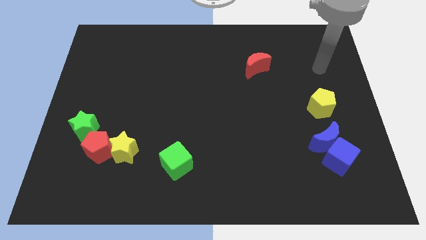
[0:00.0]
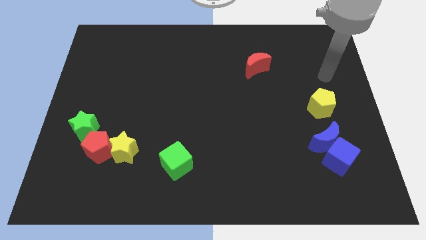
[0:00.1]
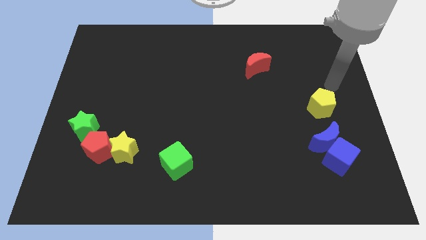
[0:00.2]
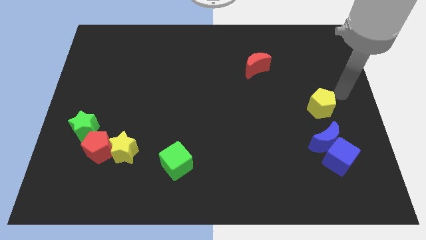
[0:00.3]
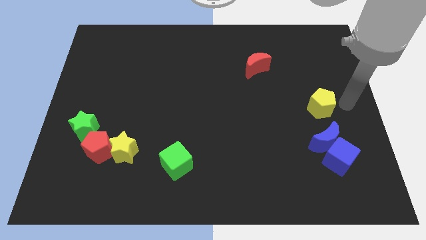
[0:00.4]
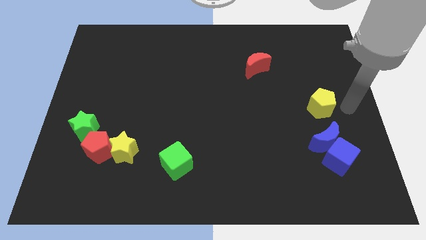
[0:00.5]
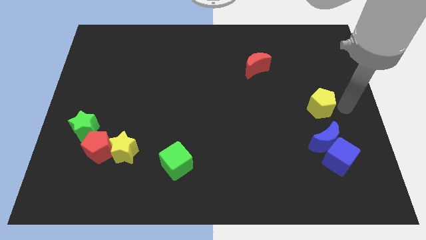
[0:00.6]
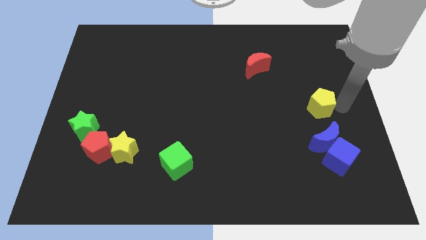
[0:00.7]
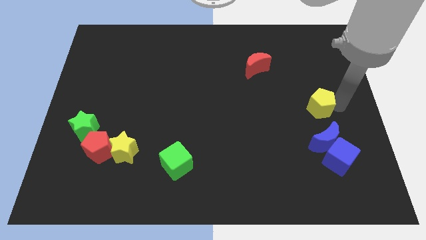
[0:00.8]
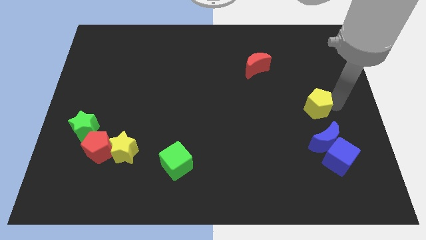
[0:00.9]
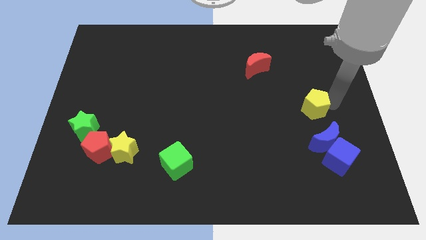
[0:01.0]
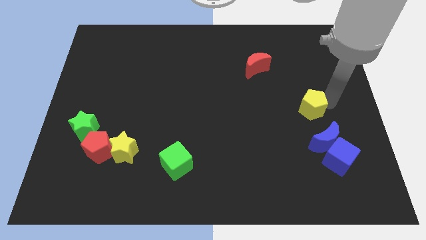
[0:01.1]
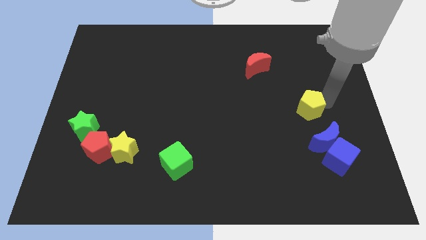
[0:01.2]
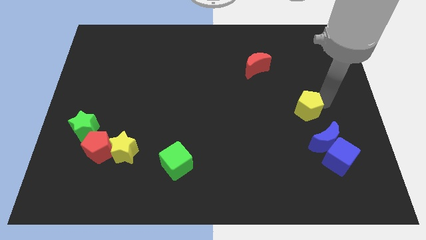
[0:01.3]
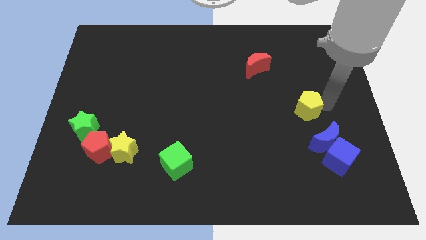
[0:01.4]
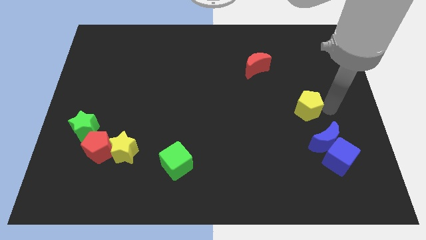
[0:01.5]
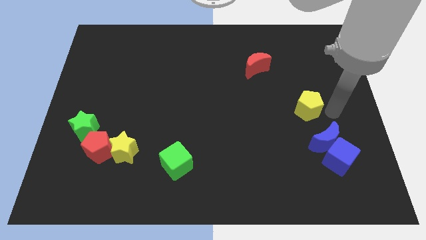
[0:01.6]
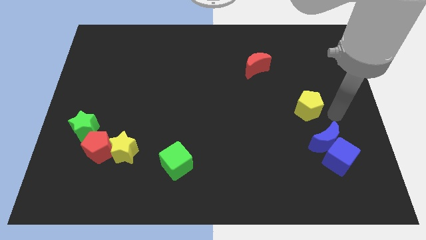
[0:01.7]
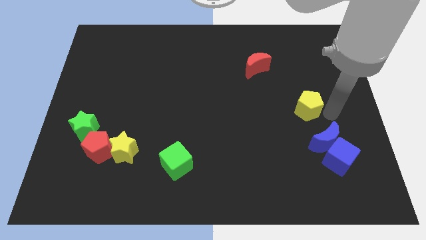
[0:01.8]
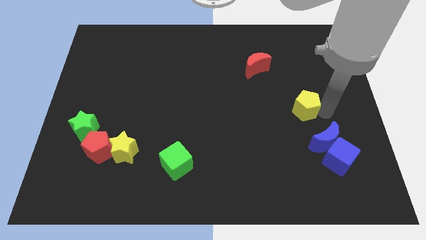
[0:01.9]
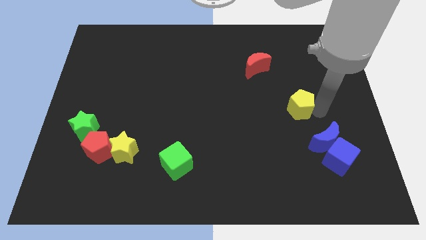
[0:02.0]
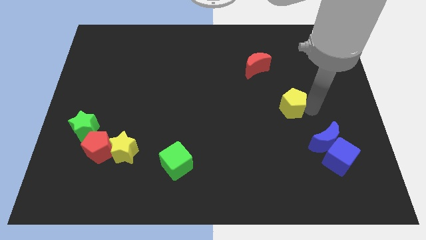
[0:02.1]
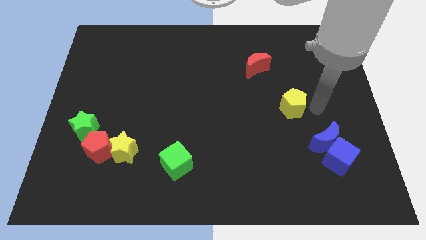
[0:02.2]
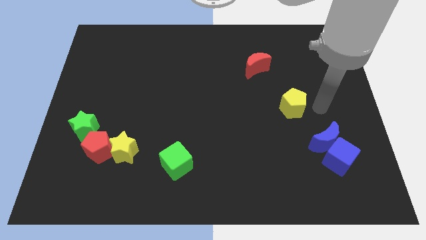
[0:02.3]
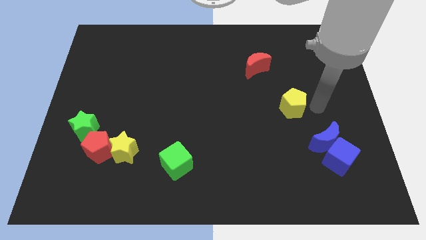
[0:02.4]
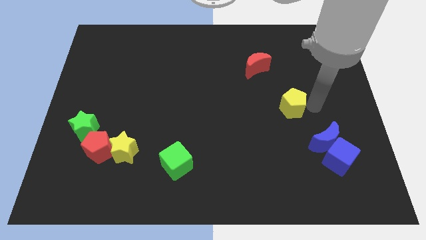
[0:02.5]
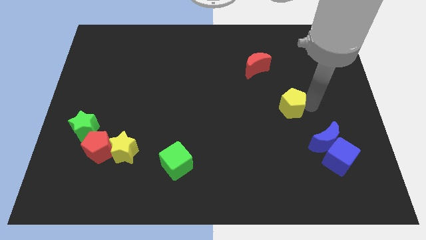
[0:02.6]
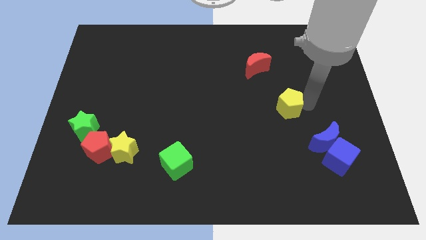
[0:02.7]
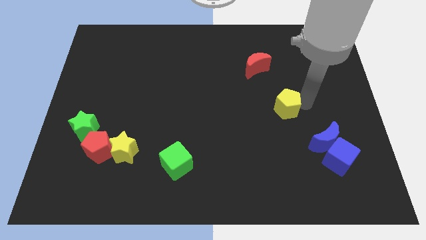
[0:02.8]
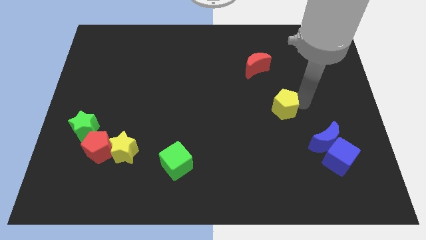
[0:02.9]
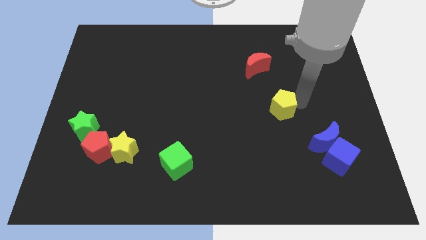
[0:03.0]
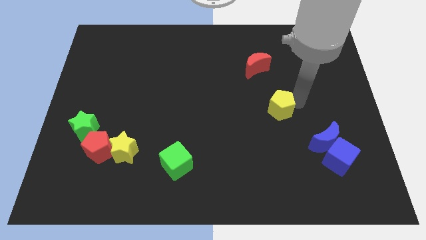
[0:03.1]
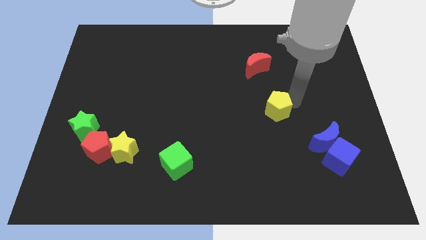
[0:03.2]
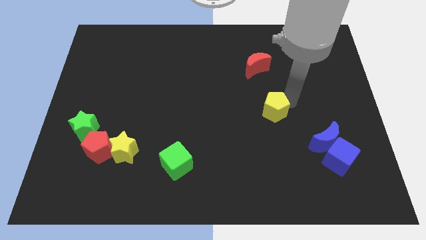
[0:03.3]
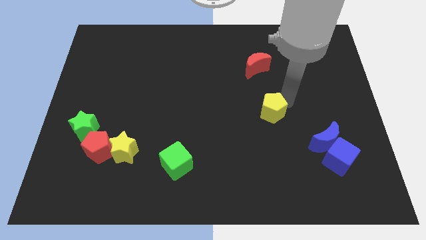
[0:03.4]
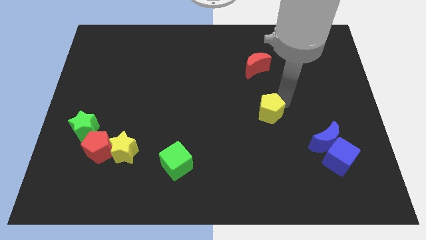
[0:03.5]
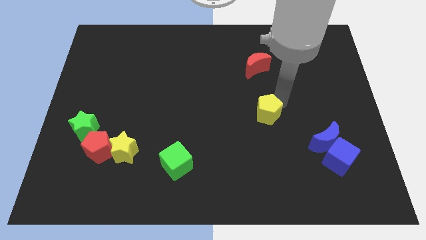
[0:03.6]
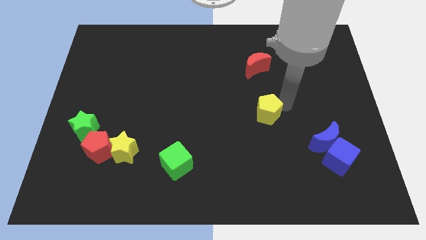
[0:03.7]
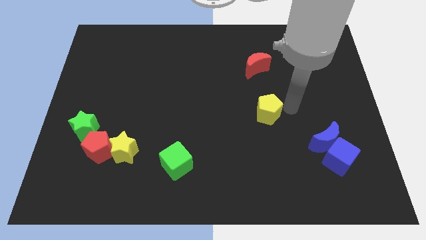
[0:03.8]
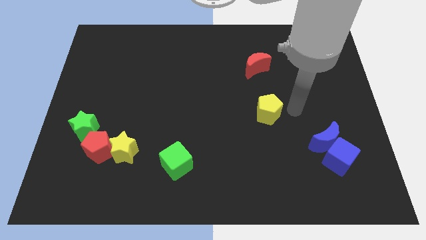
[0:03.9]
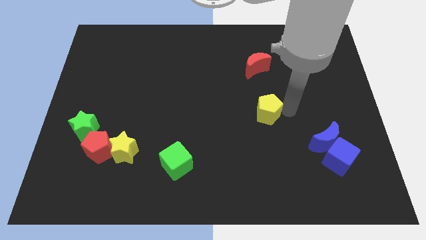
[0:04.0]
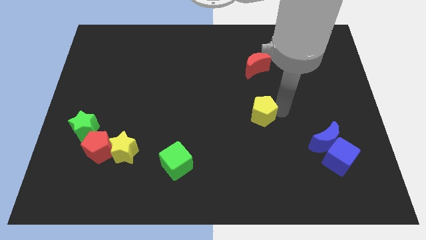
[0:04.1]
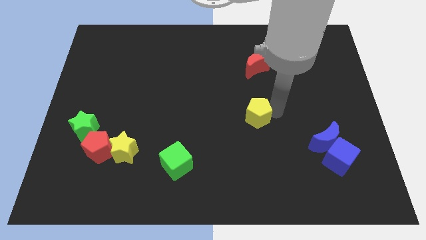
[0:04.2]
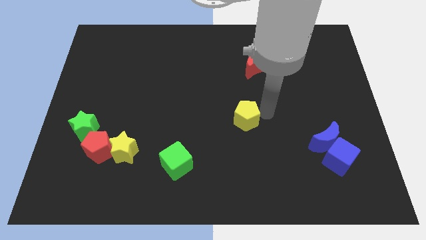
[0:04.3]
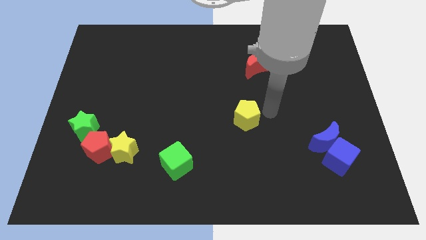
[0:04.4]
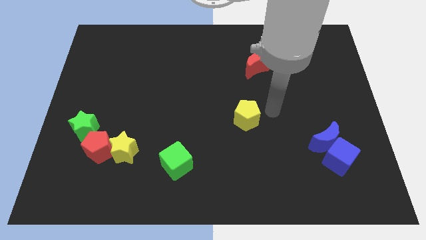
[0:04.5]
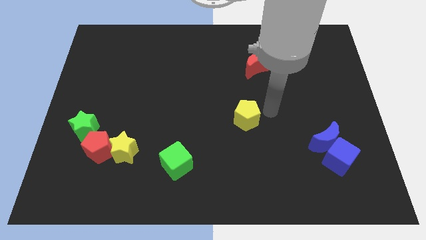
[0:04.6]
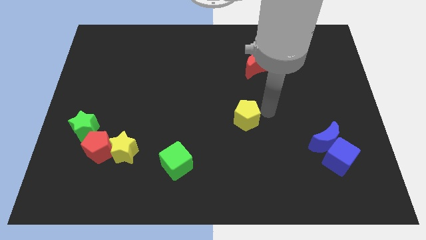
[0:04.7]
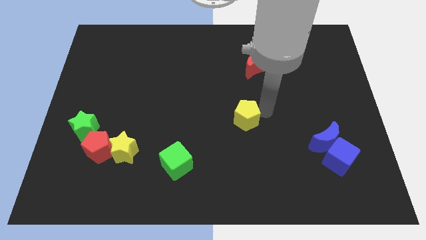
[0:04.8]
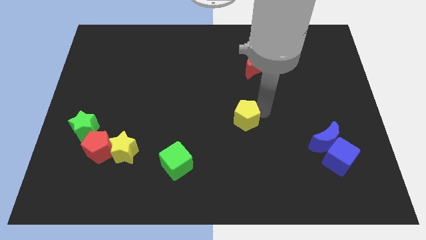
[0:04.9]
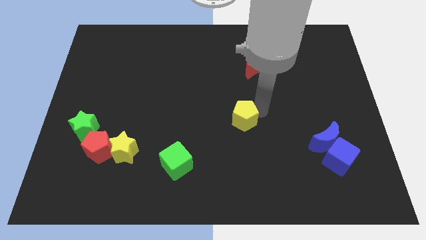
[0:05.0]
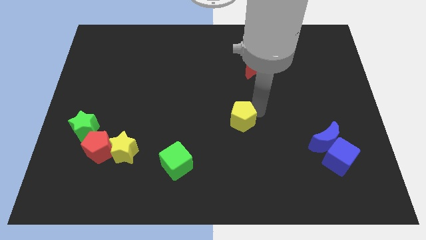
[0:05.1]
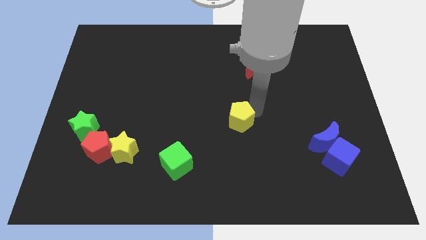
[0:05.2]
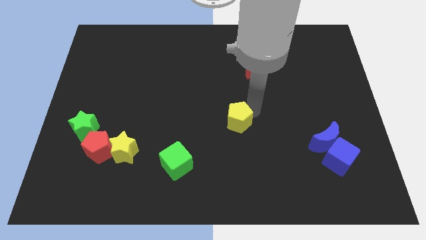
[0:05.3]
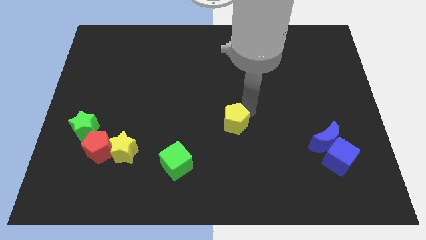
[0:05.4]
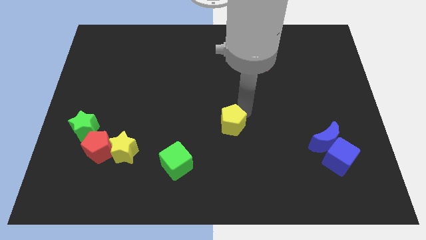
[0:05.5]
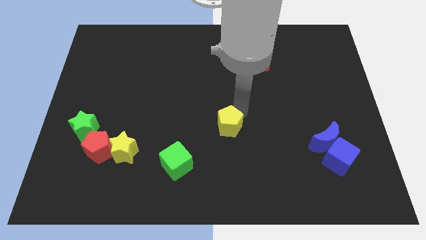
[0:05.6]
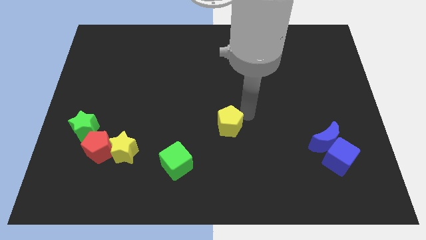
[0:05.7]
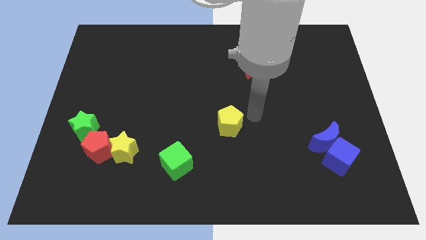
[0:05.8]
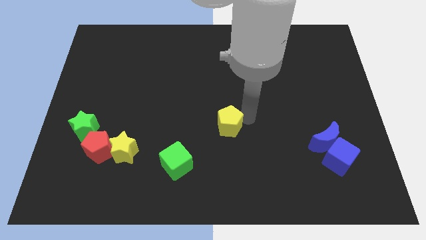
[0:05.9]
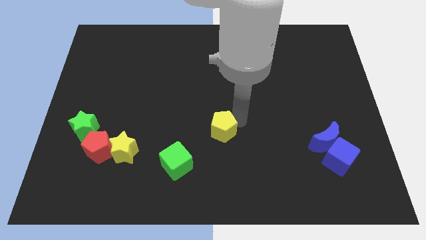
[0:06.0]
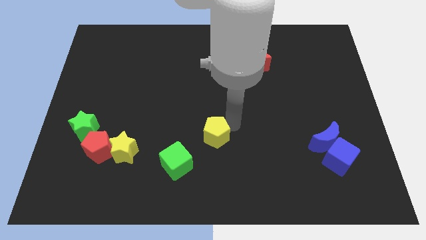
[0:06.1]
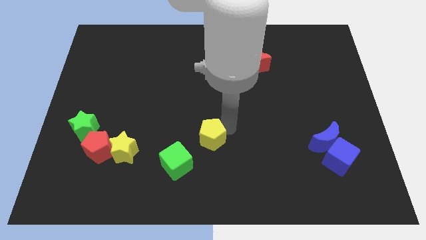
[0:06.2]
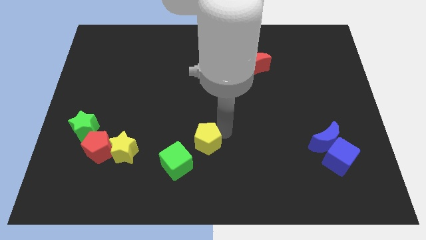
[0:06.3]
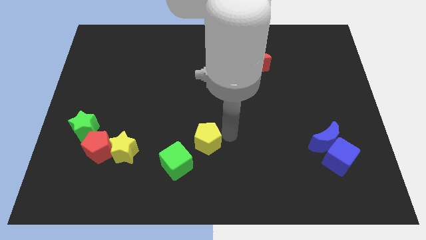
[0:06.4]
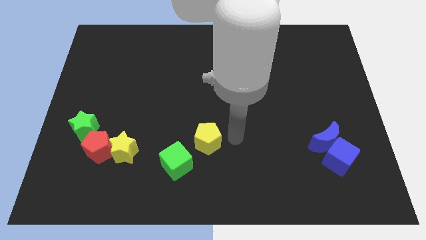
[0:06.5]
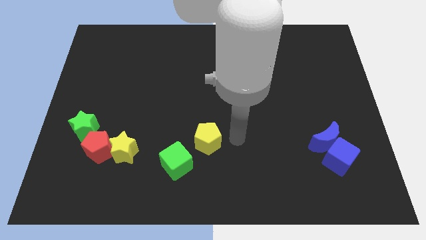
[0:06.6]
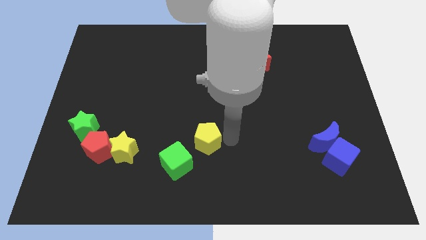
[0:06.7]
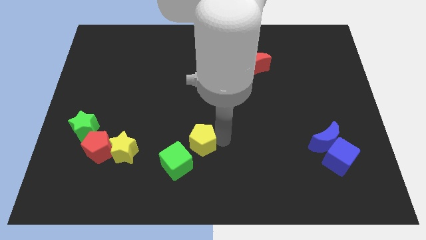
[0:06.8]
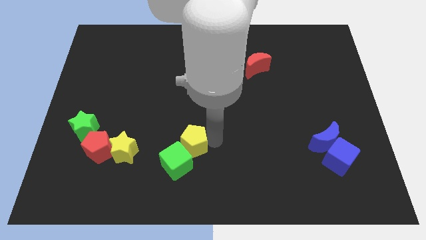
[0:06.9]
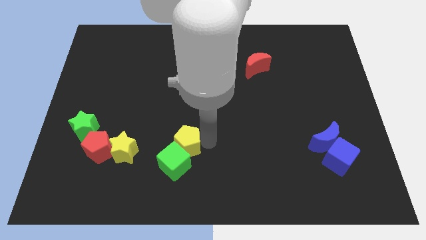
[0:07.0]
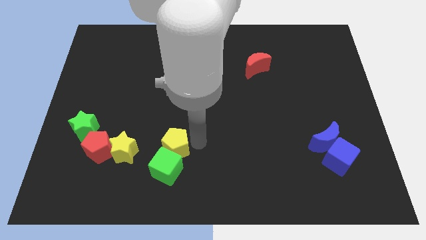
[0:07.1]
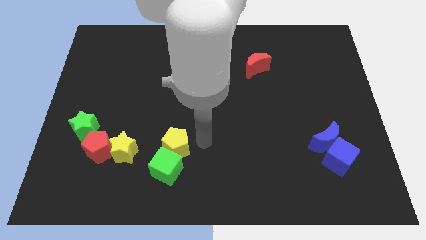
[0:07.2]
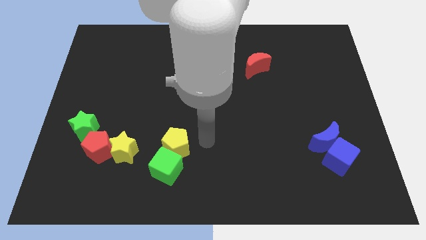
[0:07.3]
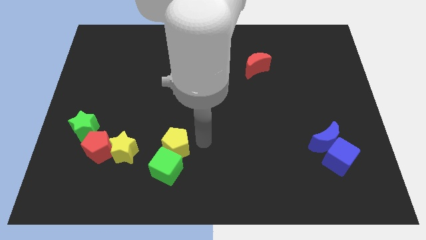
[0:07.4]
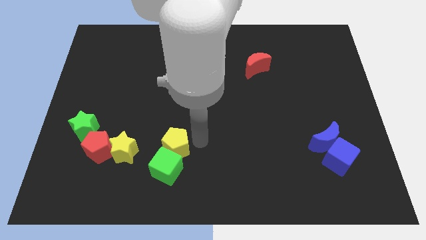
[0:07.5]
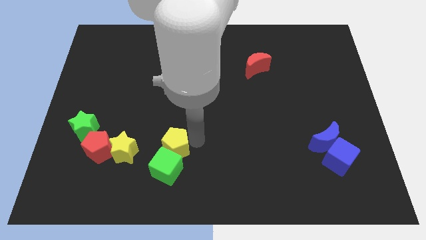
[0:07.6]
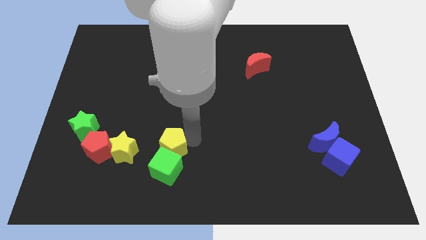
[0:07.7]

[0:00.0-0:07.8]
put the yellow pentagon to the right of the red pentagon
